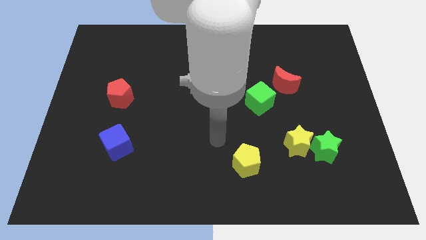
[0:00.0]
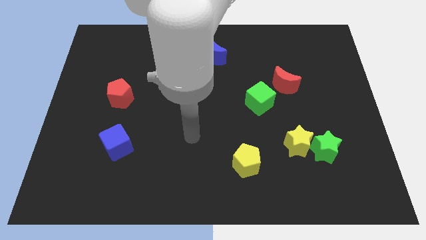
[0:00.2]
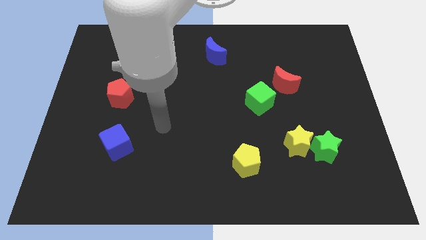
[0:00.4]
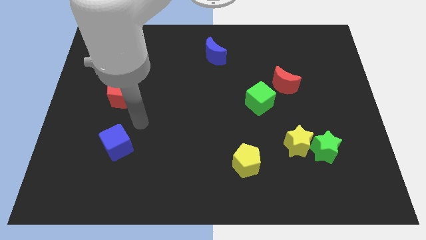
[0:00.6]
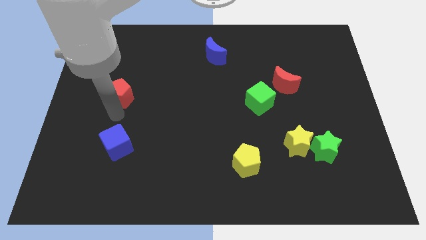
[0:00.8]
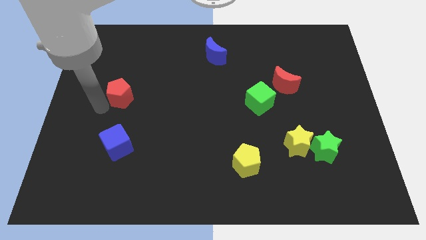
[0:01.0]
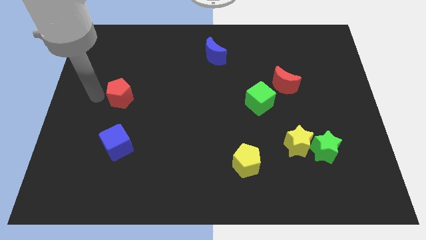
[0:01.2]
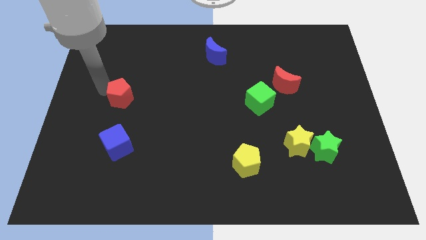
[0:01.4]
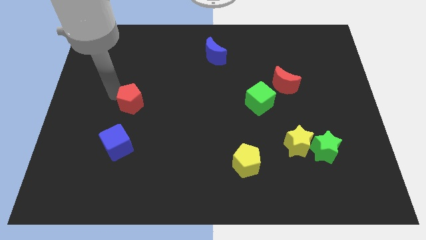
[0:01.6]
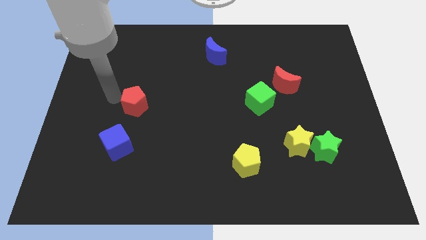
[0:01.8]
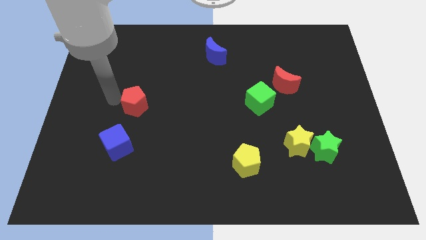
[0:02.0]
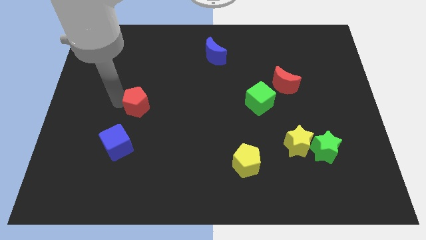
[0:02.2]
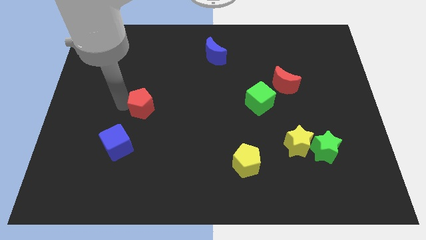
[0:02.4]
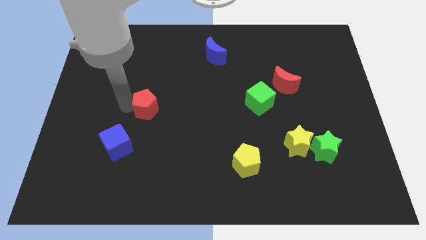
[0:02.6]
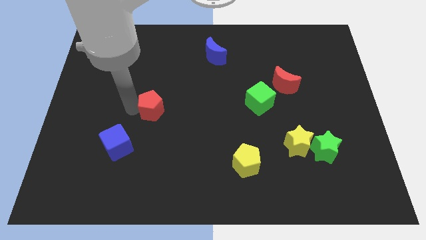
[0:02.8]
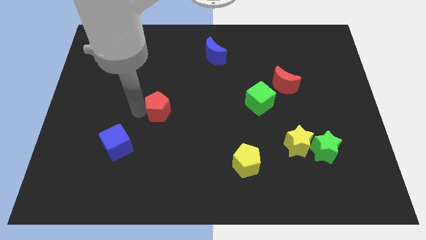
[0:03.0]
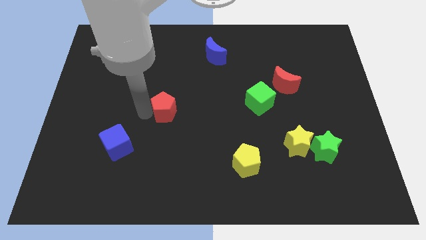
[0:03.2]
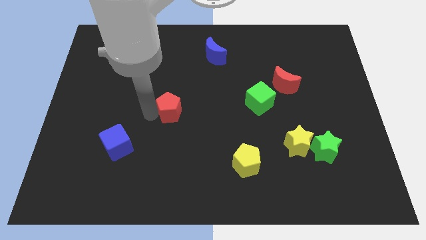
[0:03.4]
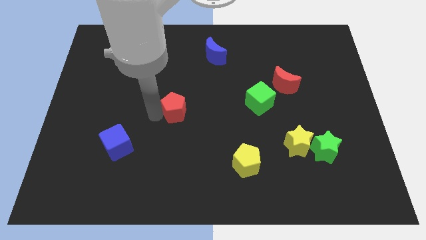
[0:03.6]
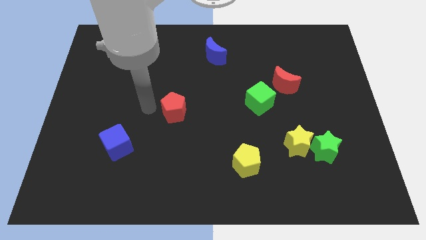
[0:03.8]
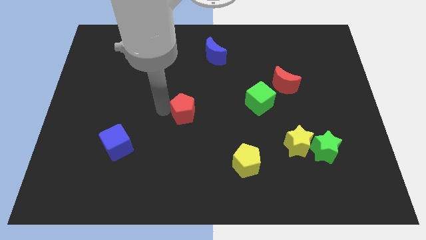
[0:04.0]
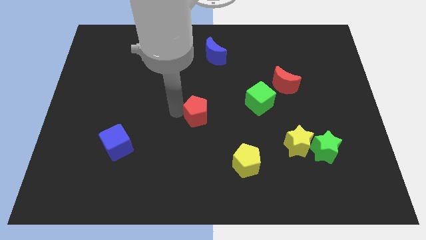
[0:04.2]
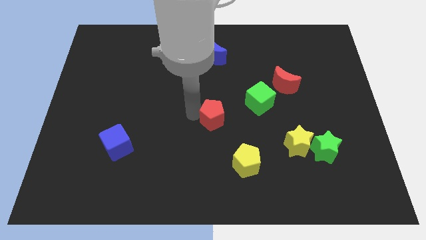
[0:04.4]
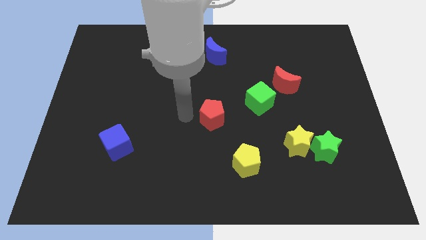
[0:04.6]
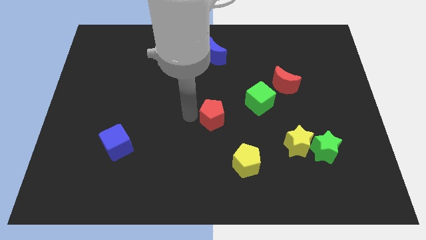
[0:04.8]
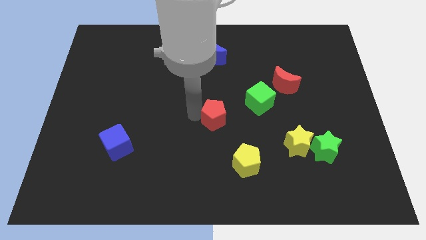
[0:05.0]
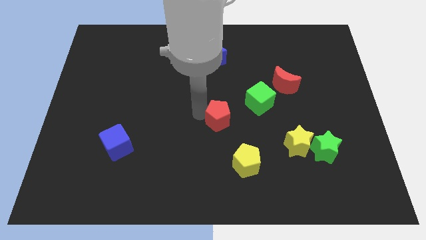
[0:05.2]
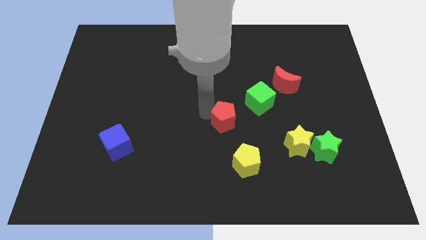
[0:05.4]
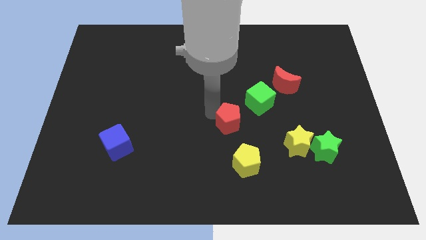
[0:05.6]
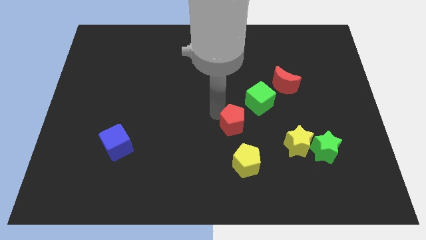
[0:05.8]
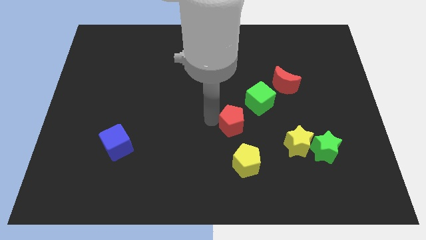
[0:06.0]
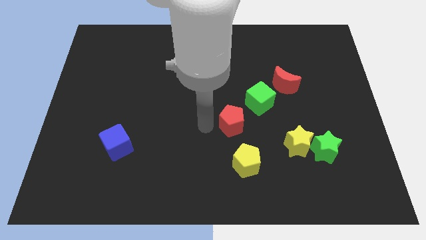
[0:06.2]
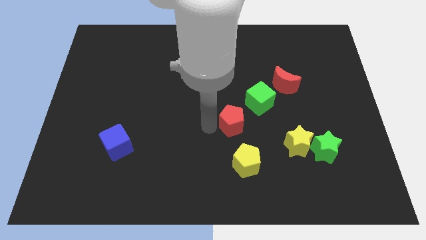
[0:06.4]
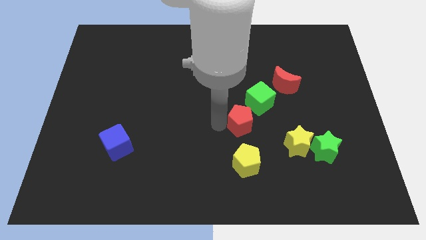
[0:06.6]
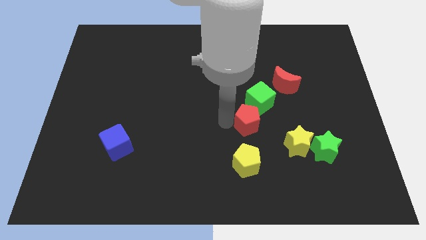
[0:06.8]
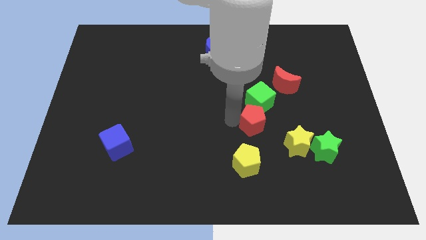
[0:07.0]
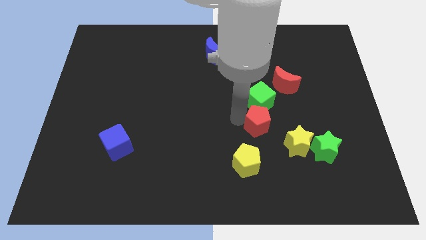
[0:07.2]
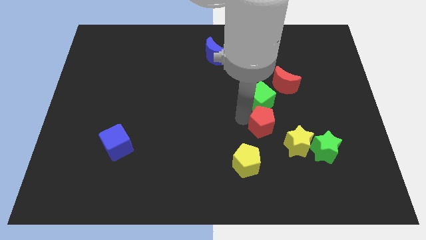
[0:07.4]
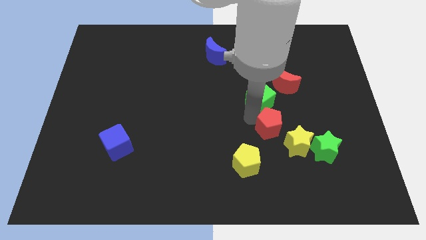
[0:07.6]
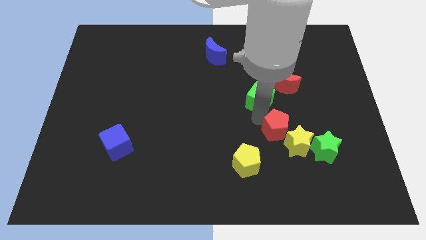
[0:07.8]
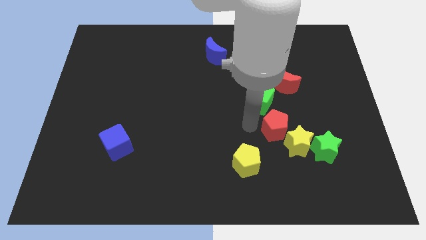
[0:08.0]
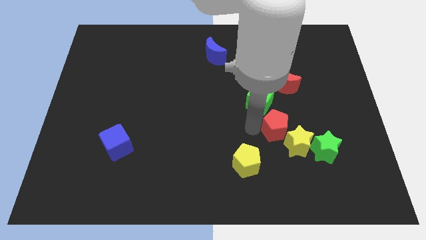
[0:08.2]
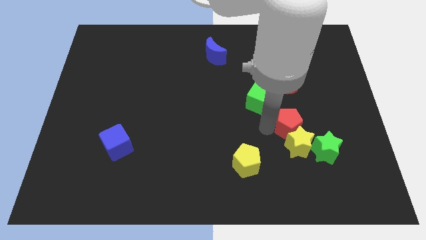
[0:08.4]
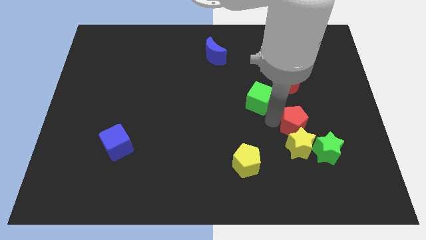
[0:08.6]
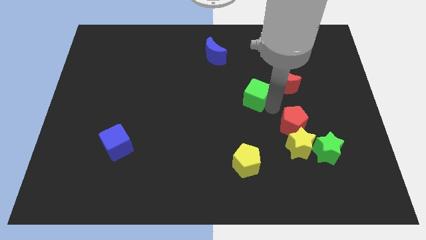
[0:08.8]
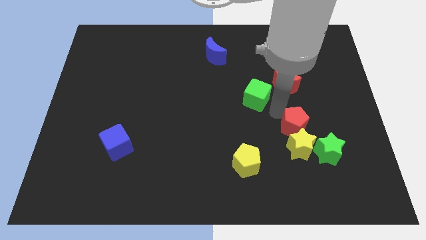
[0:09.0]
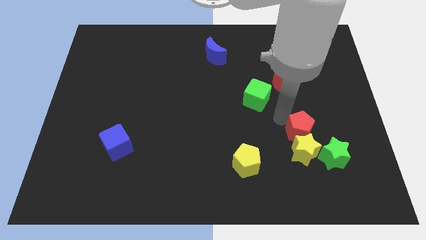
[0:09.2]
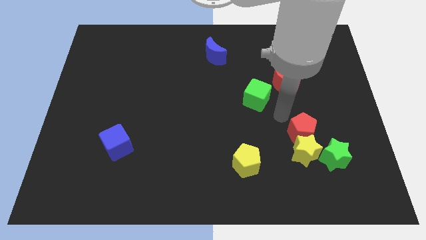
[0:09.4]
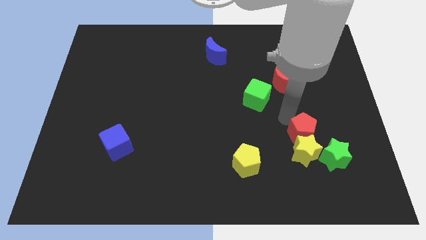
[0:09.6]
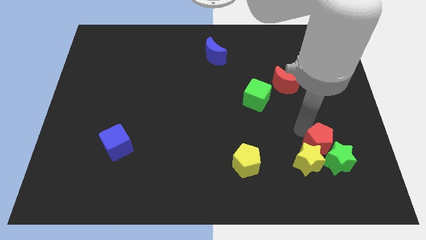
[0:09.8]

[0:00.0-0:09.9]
put the red pentagon next to the green star

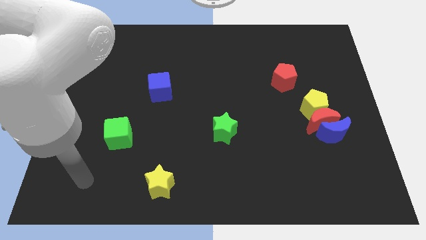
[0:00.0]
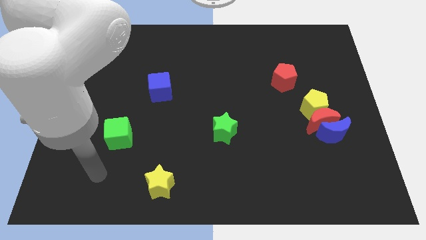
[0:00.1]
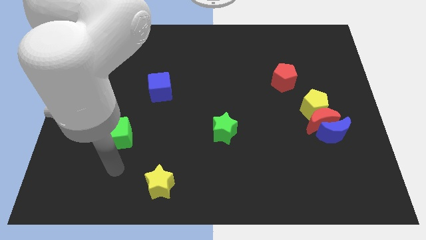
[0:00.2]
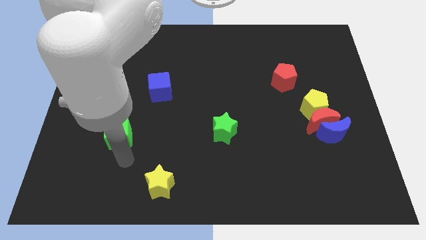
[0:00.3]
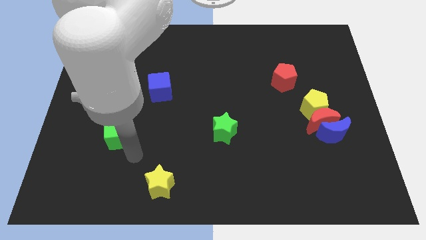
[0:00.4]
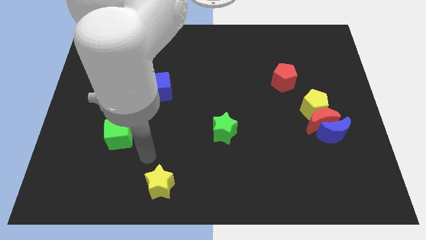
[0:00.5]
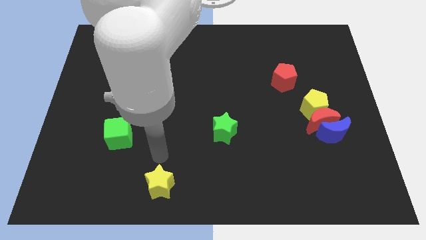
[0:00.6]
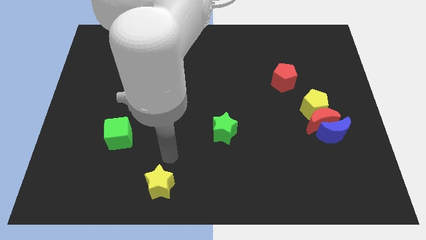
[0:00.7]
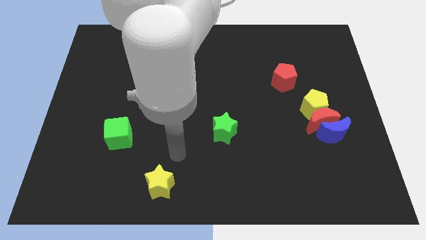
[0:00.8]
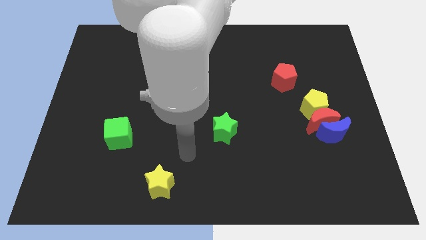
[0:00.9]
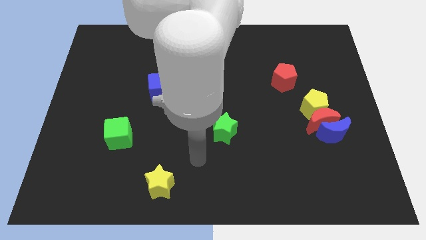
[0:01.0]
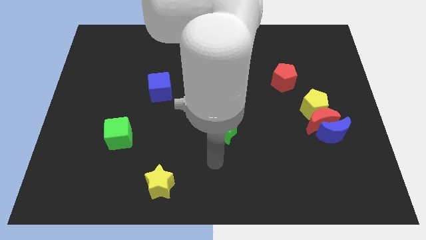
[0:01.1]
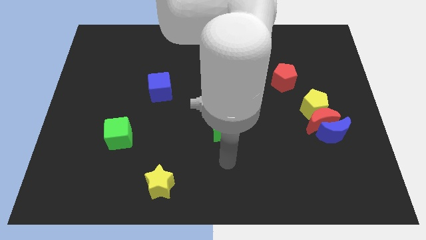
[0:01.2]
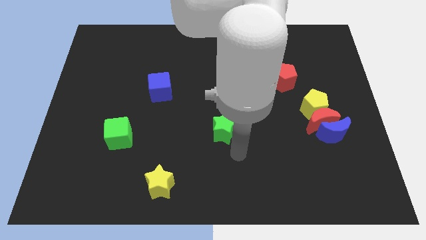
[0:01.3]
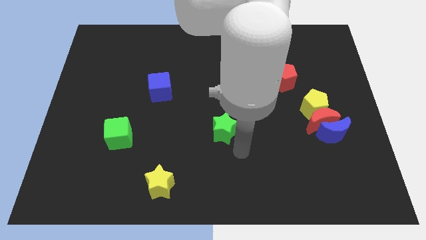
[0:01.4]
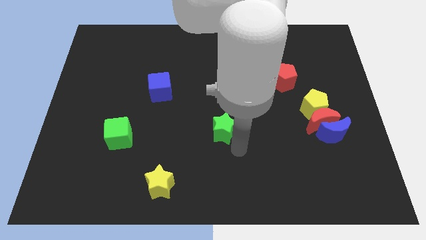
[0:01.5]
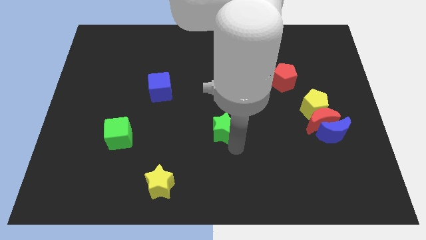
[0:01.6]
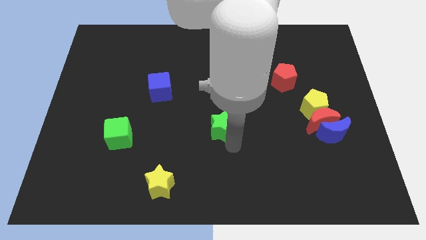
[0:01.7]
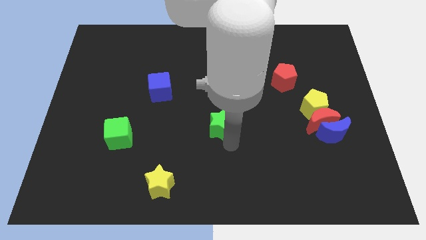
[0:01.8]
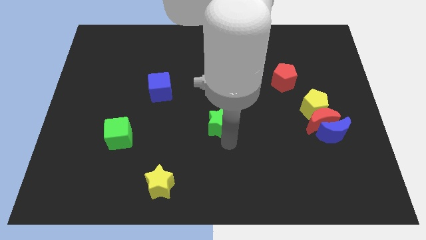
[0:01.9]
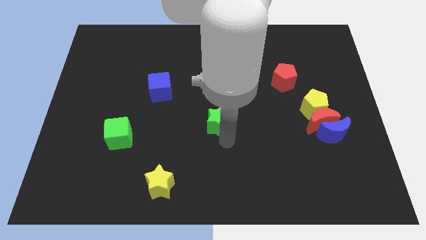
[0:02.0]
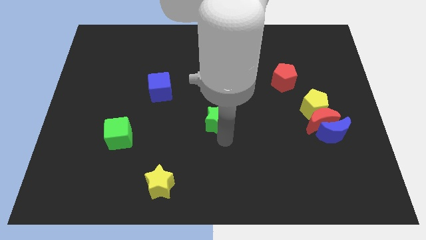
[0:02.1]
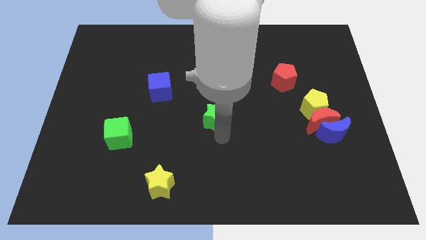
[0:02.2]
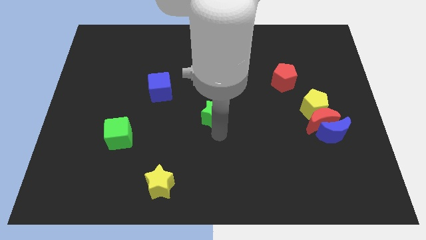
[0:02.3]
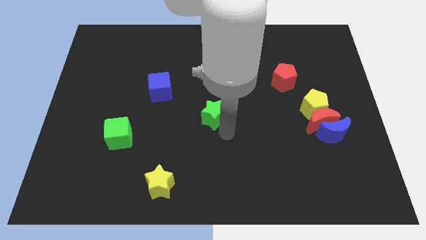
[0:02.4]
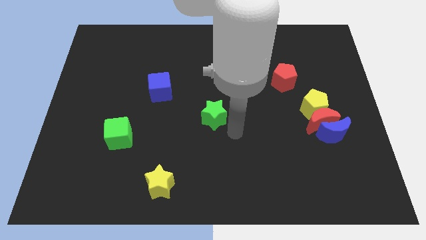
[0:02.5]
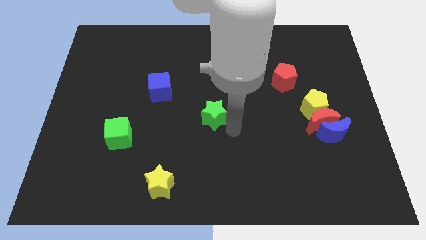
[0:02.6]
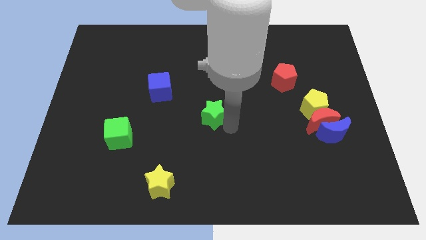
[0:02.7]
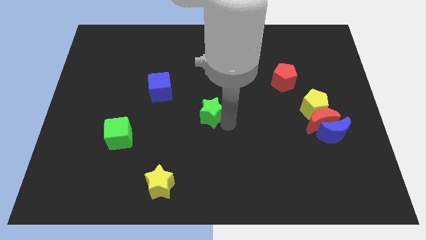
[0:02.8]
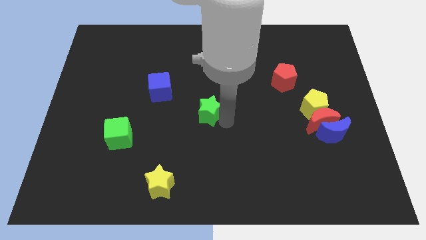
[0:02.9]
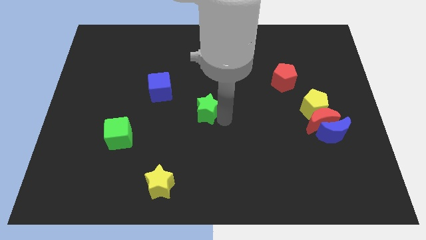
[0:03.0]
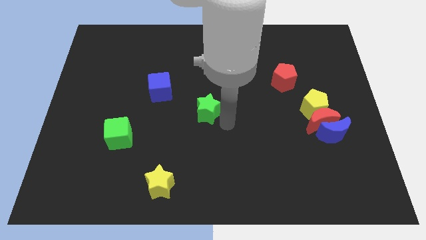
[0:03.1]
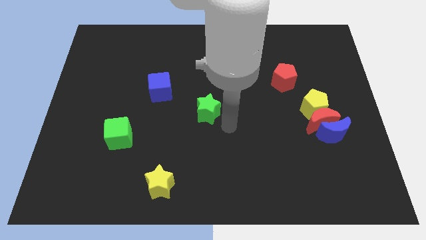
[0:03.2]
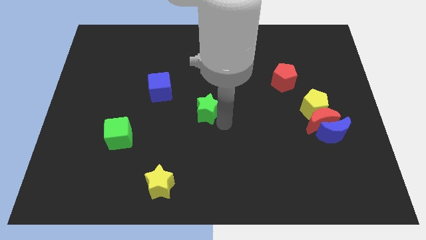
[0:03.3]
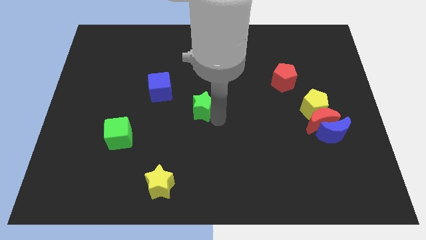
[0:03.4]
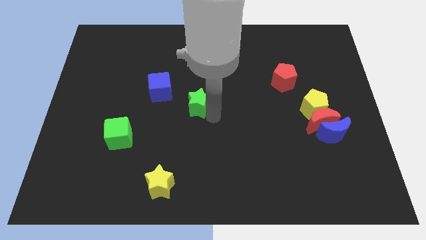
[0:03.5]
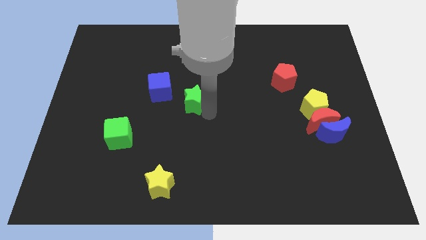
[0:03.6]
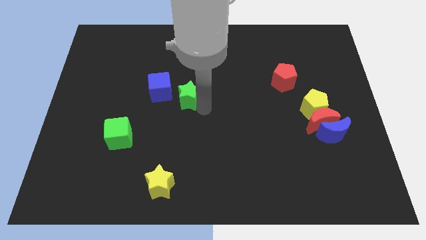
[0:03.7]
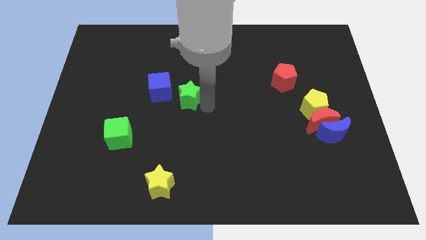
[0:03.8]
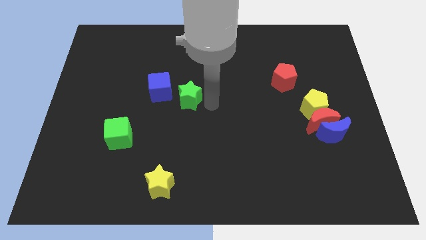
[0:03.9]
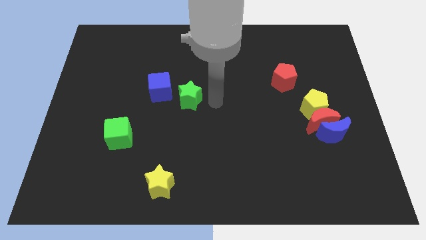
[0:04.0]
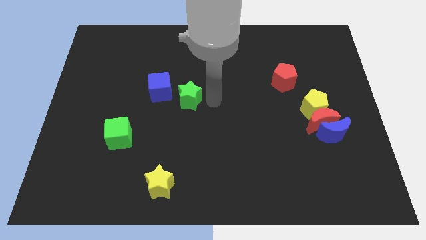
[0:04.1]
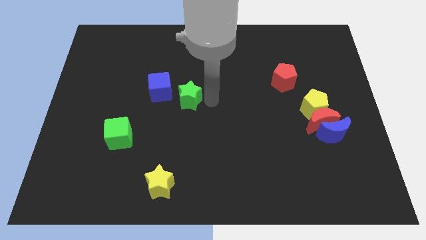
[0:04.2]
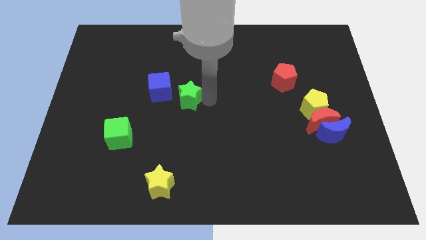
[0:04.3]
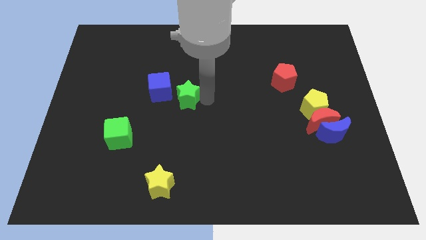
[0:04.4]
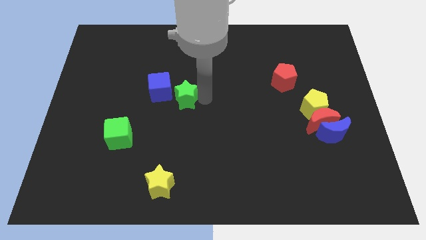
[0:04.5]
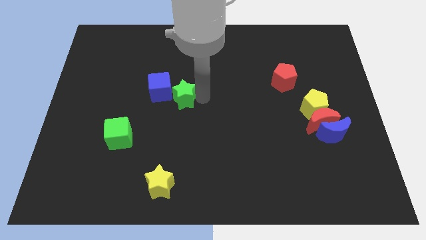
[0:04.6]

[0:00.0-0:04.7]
slide the green star to the blue cube
